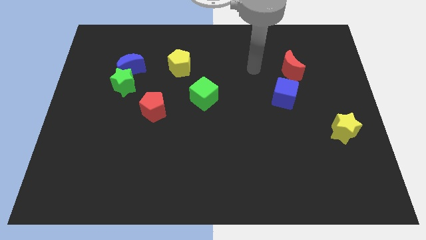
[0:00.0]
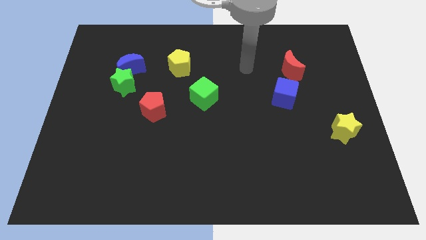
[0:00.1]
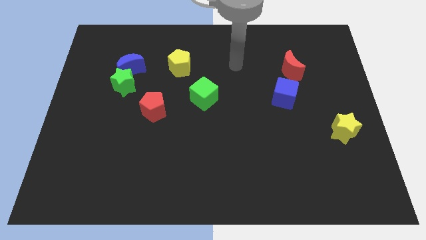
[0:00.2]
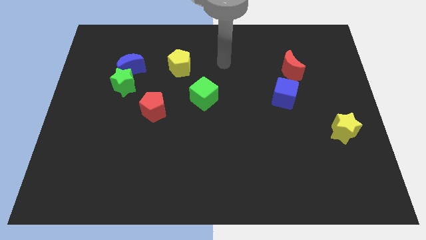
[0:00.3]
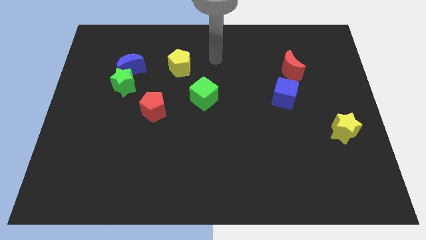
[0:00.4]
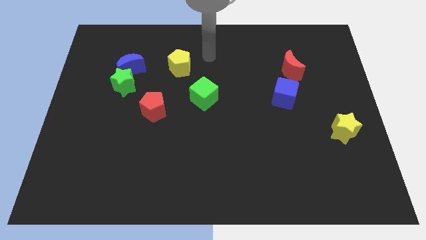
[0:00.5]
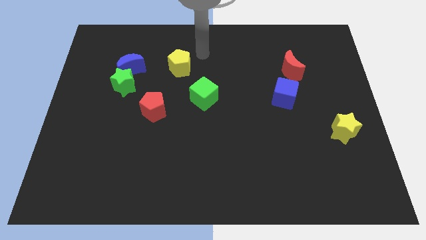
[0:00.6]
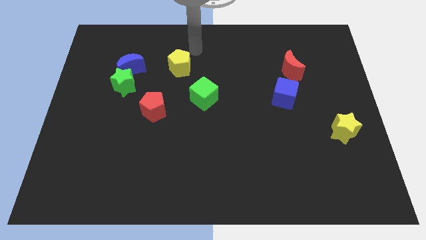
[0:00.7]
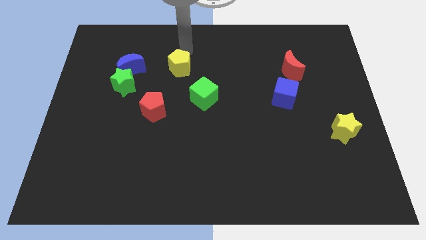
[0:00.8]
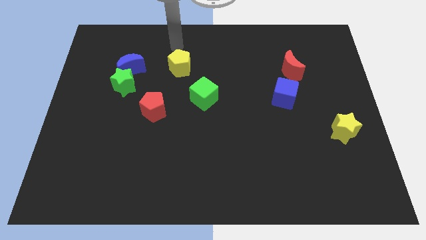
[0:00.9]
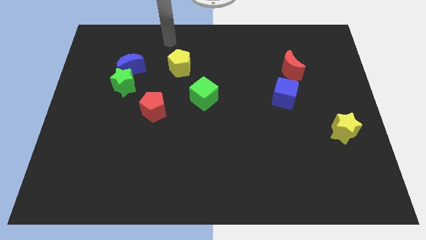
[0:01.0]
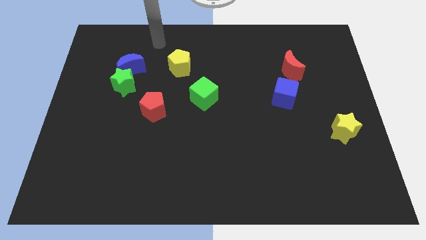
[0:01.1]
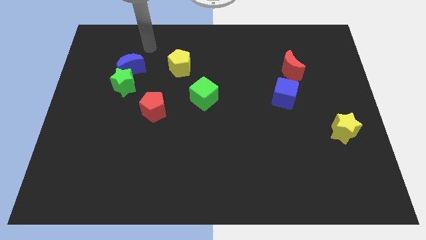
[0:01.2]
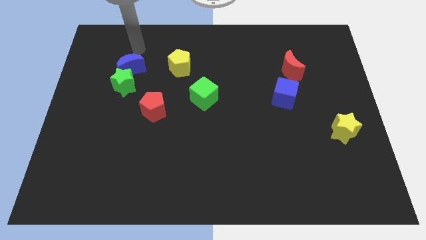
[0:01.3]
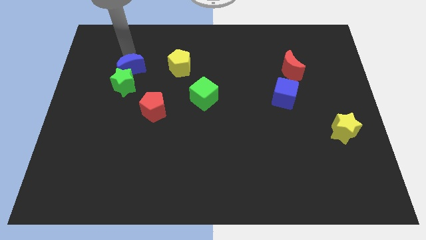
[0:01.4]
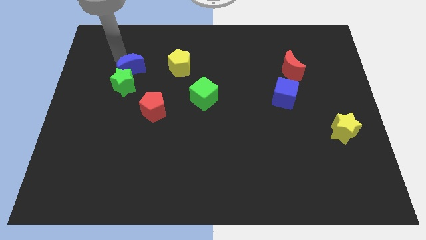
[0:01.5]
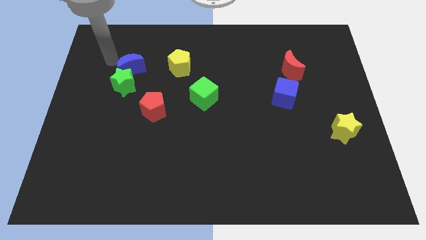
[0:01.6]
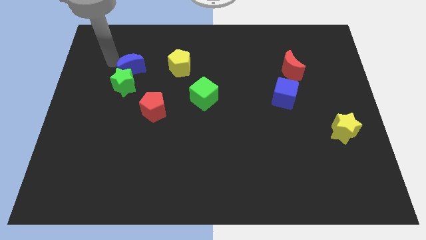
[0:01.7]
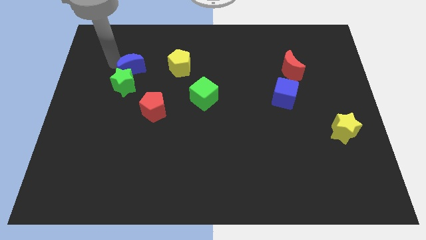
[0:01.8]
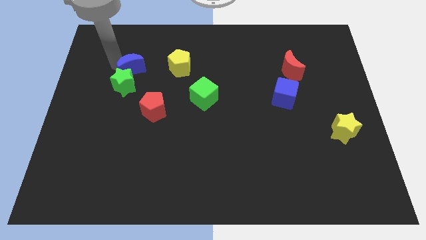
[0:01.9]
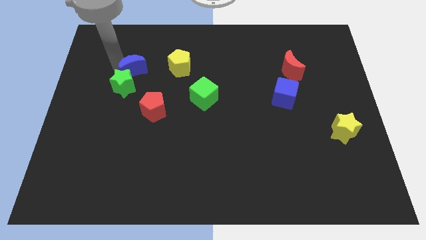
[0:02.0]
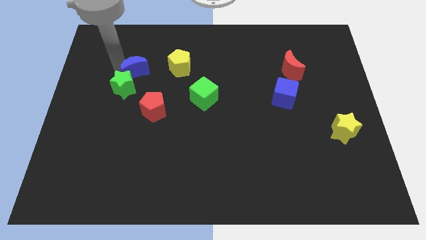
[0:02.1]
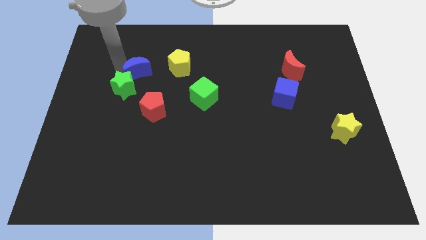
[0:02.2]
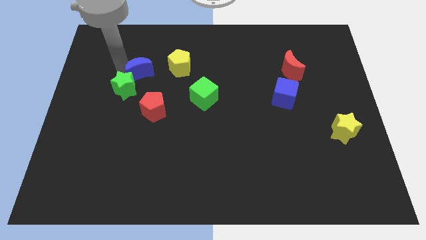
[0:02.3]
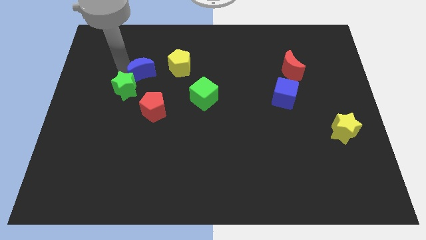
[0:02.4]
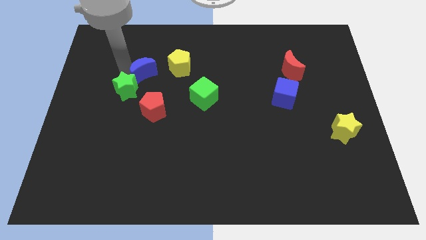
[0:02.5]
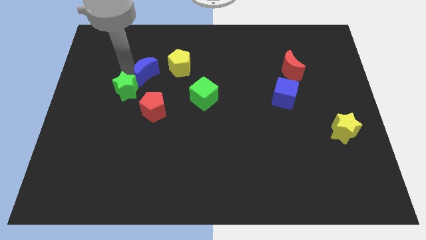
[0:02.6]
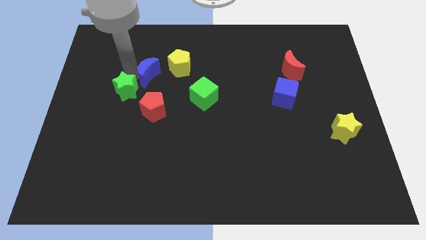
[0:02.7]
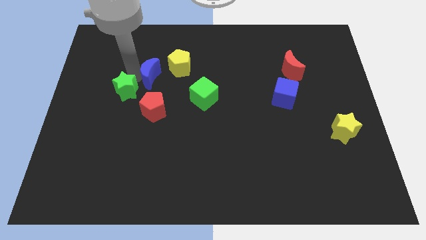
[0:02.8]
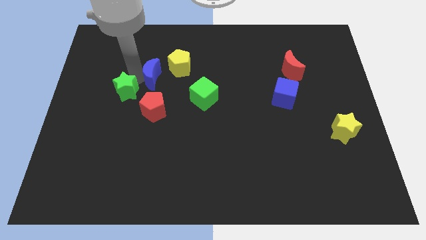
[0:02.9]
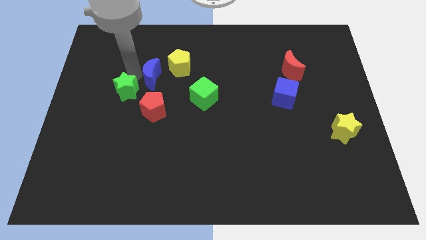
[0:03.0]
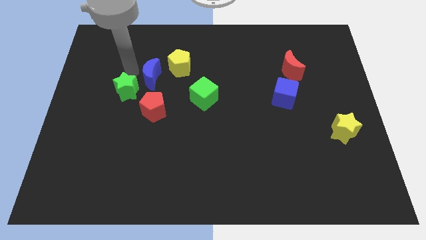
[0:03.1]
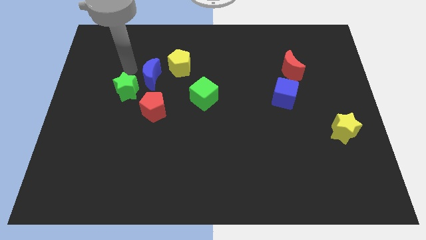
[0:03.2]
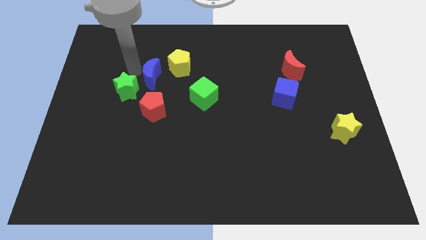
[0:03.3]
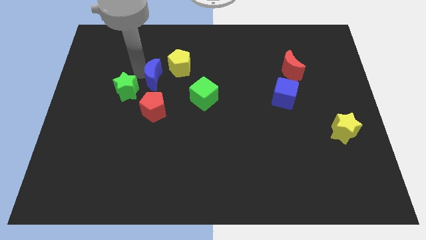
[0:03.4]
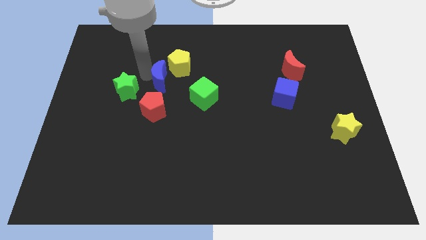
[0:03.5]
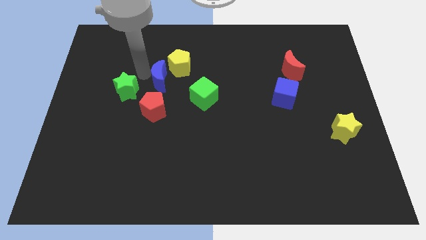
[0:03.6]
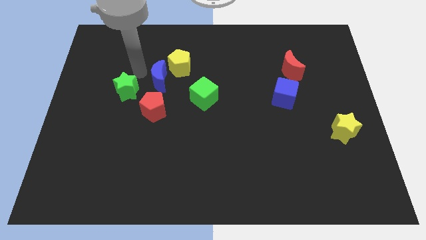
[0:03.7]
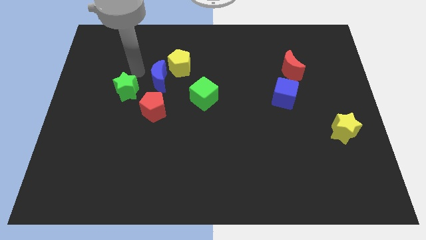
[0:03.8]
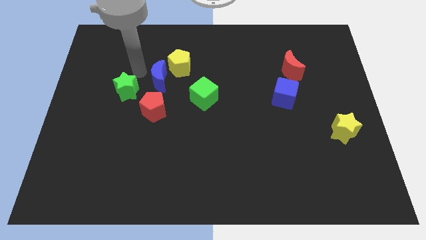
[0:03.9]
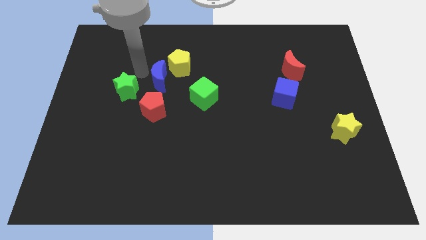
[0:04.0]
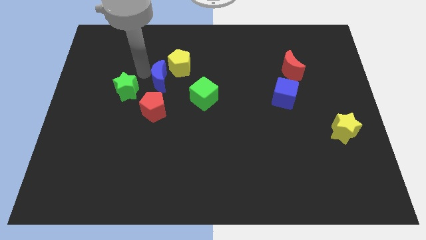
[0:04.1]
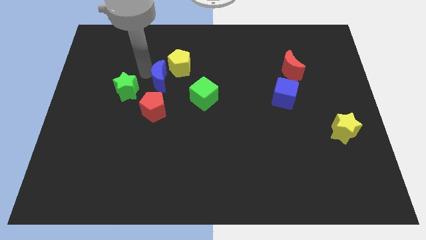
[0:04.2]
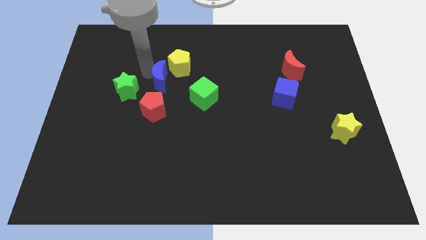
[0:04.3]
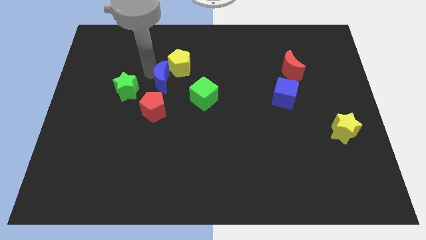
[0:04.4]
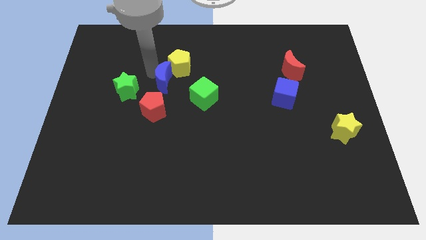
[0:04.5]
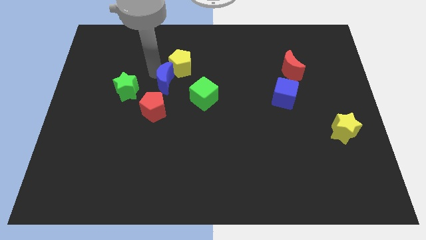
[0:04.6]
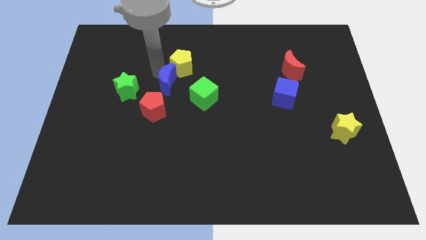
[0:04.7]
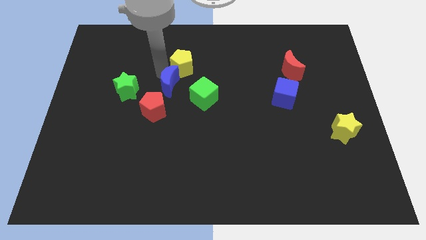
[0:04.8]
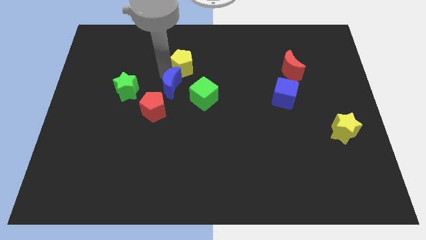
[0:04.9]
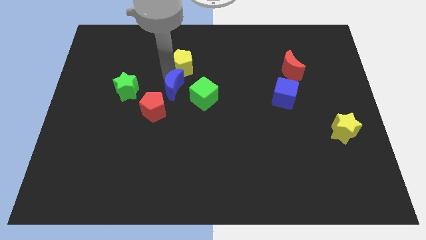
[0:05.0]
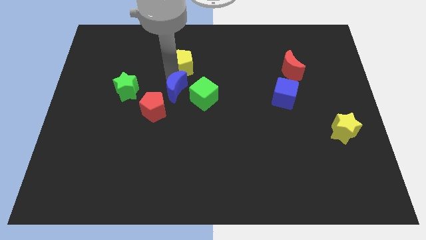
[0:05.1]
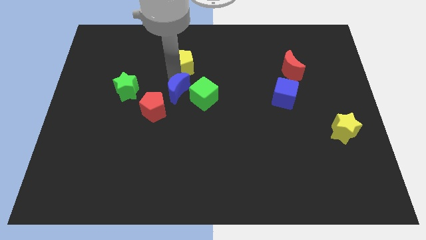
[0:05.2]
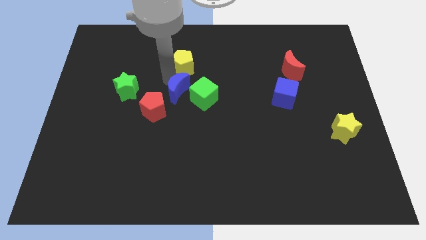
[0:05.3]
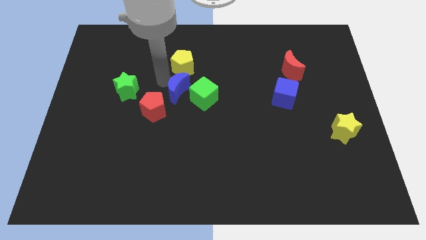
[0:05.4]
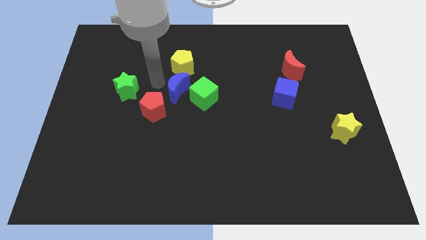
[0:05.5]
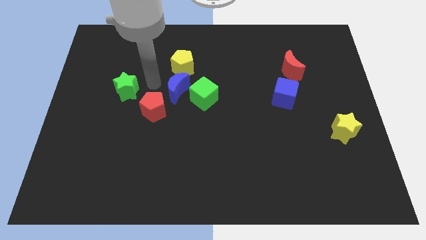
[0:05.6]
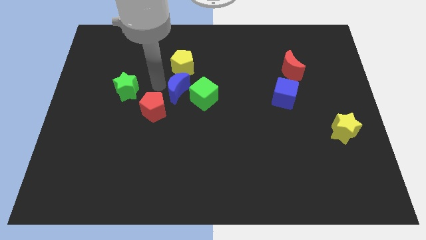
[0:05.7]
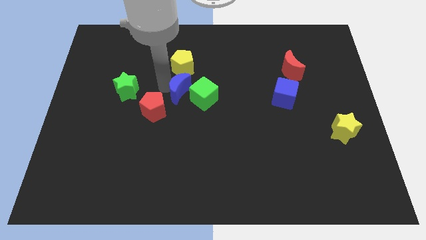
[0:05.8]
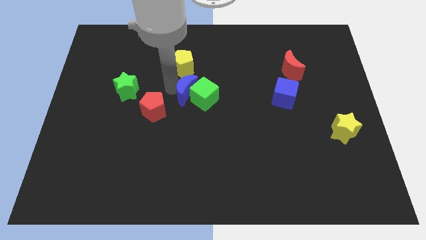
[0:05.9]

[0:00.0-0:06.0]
slide the blue moon towards the green cube

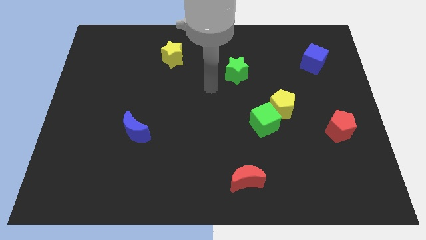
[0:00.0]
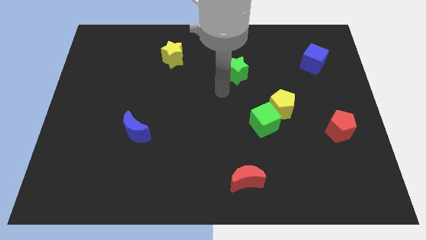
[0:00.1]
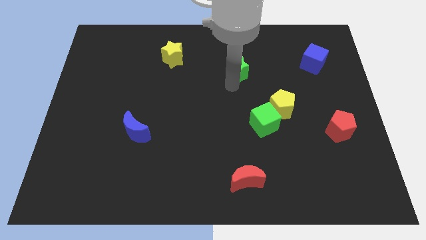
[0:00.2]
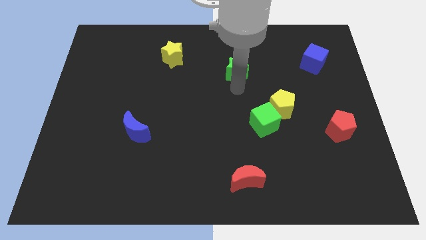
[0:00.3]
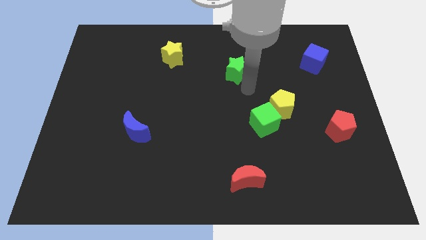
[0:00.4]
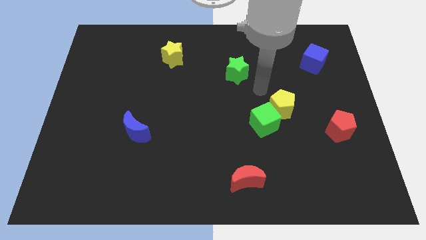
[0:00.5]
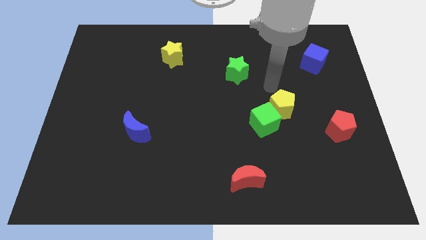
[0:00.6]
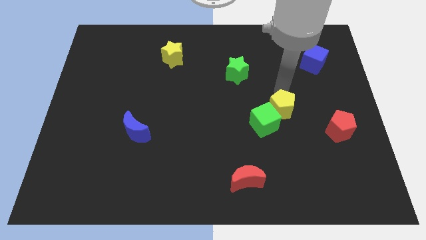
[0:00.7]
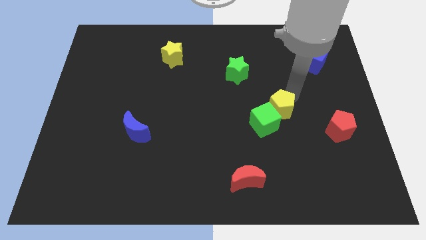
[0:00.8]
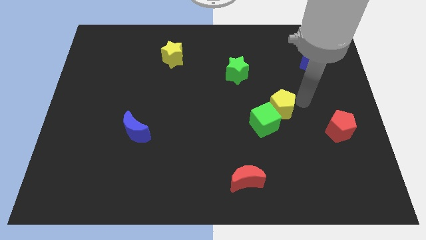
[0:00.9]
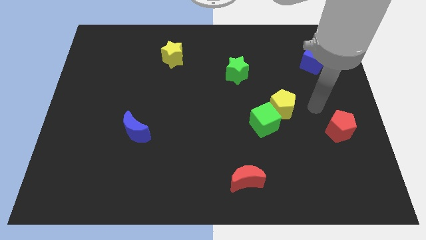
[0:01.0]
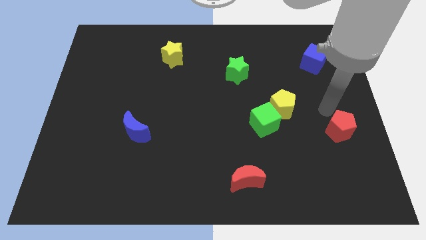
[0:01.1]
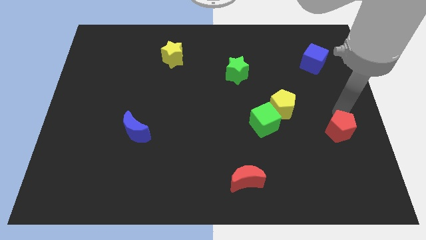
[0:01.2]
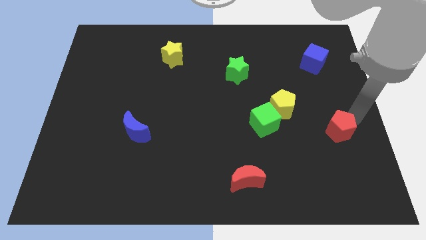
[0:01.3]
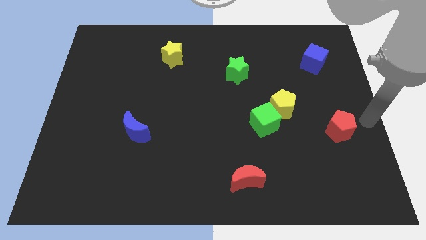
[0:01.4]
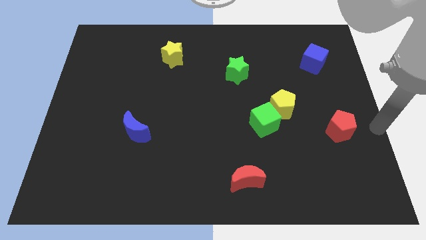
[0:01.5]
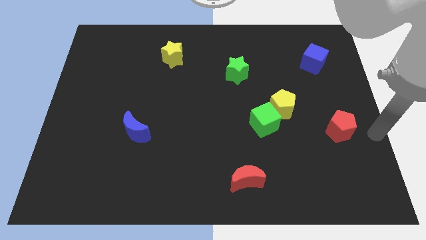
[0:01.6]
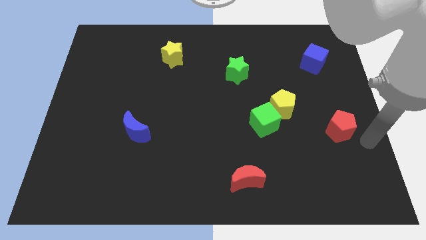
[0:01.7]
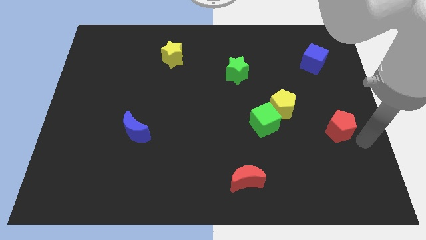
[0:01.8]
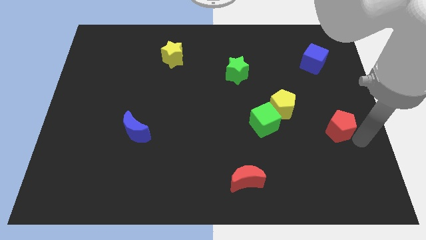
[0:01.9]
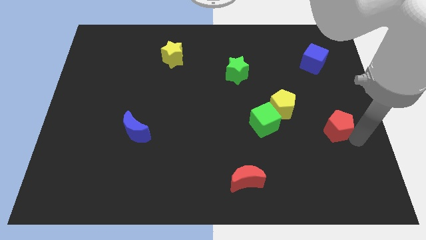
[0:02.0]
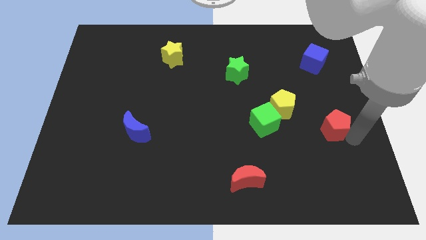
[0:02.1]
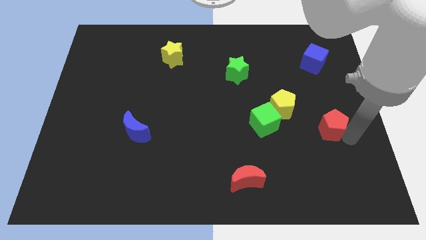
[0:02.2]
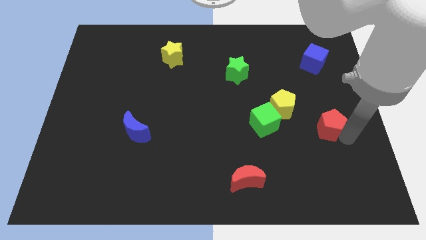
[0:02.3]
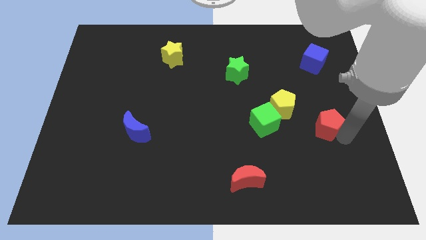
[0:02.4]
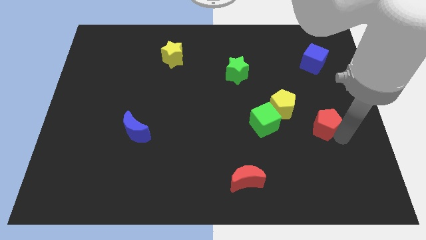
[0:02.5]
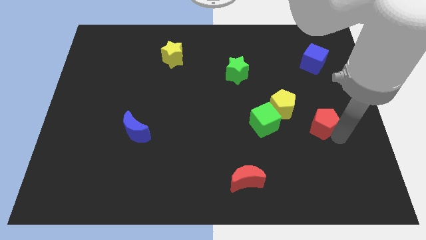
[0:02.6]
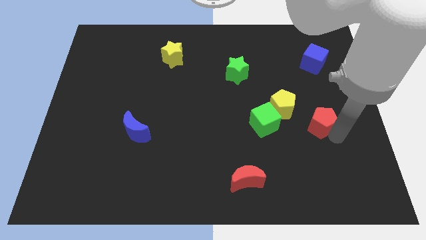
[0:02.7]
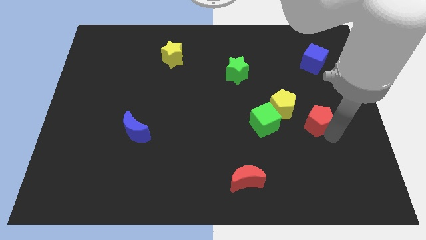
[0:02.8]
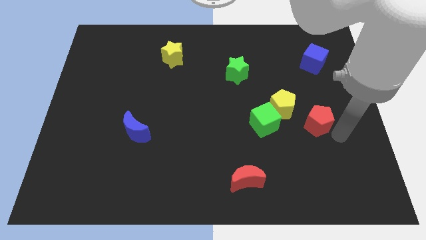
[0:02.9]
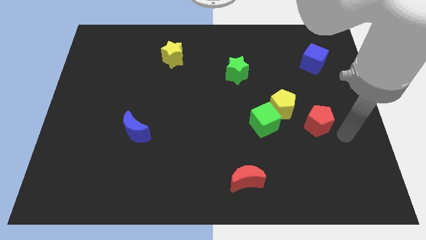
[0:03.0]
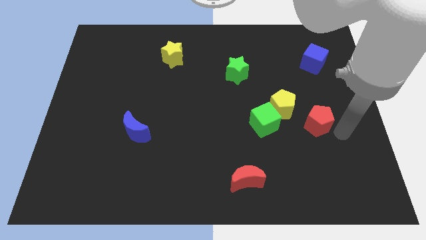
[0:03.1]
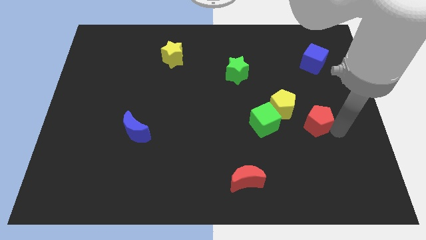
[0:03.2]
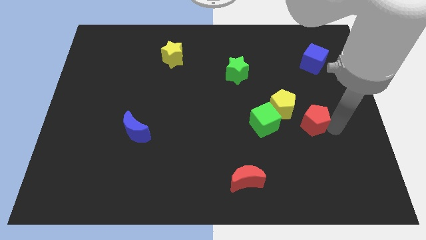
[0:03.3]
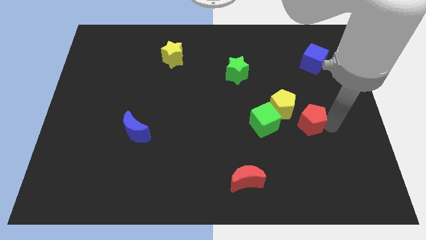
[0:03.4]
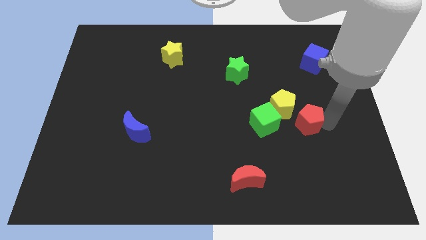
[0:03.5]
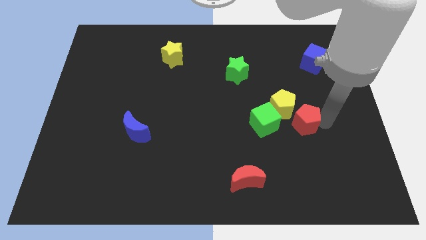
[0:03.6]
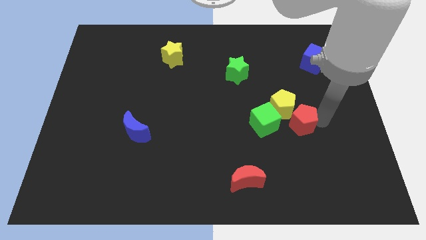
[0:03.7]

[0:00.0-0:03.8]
move the red pentagon next to the yellow pentagon
